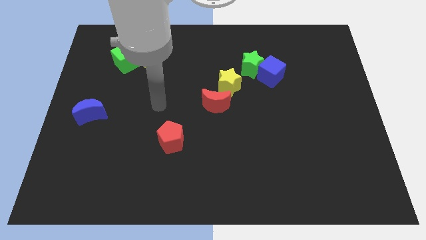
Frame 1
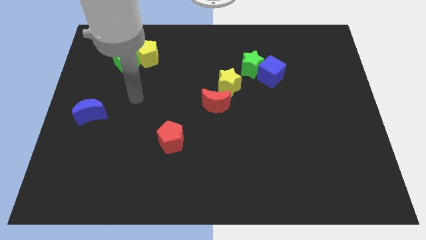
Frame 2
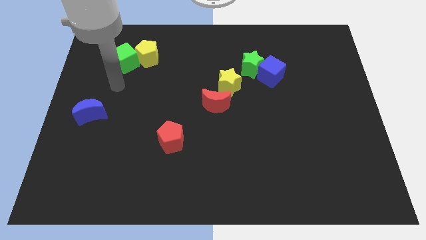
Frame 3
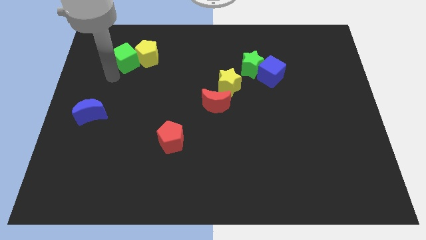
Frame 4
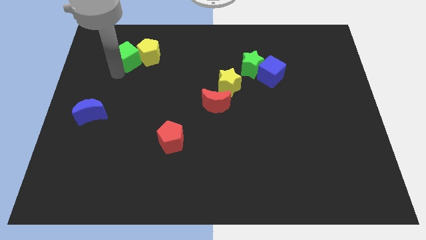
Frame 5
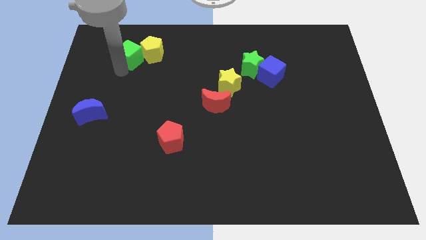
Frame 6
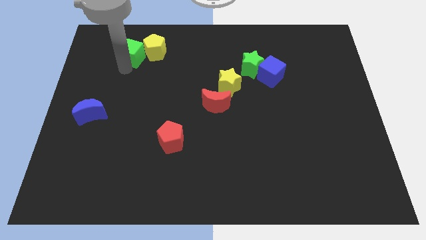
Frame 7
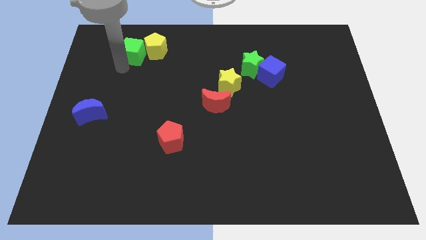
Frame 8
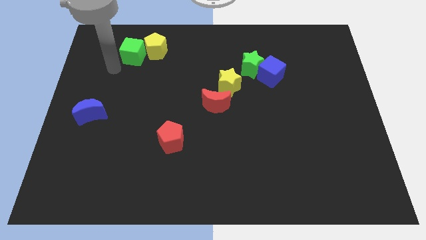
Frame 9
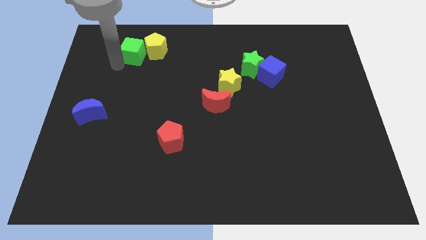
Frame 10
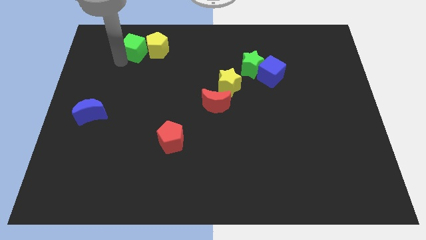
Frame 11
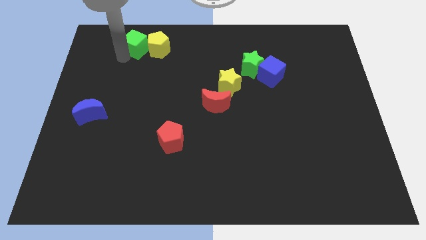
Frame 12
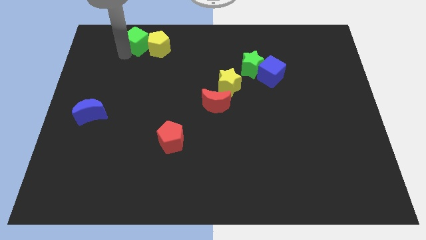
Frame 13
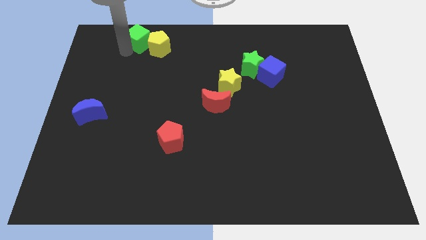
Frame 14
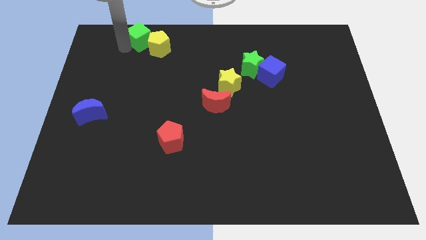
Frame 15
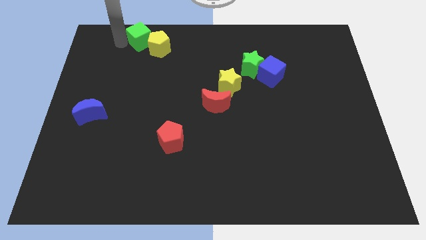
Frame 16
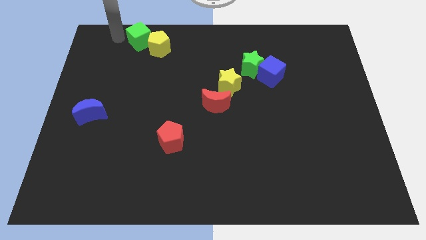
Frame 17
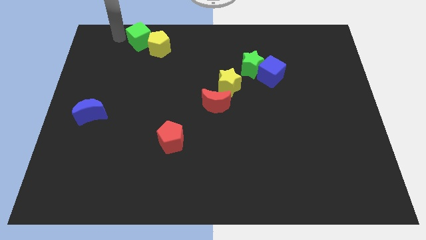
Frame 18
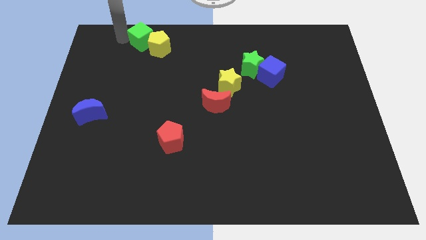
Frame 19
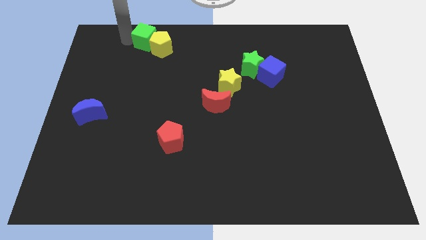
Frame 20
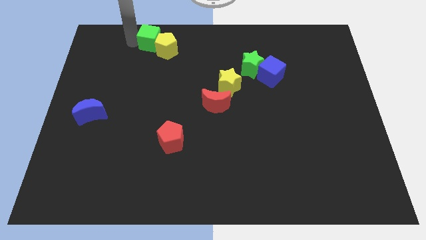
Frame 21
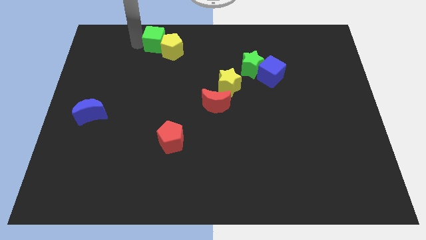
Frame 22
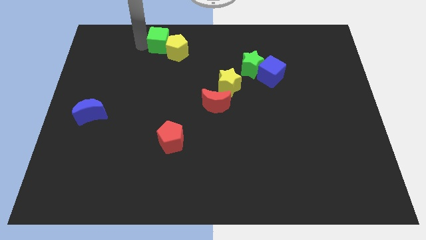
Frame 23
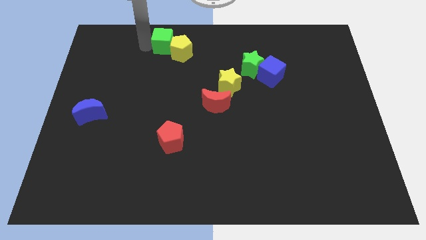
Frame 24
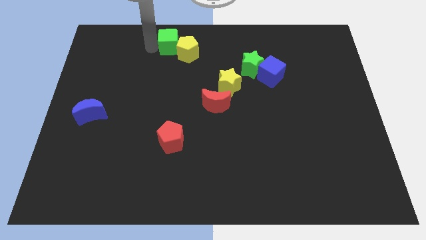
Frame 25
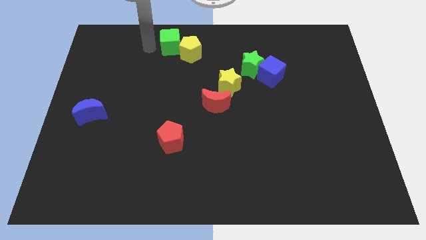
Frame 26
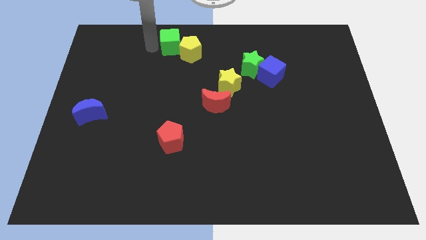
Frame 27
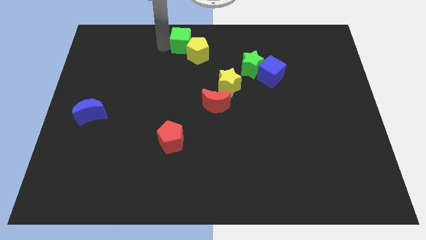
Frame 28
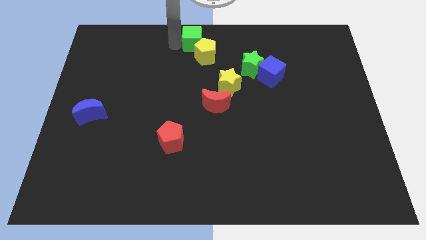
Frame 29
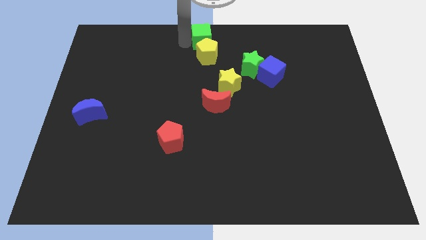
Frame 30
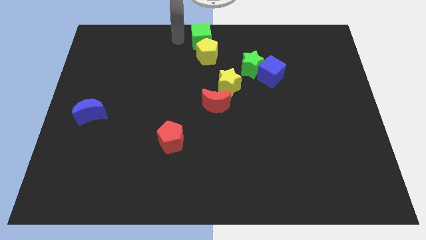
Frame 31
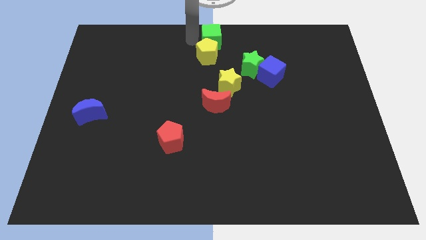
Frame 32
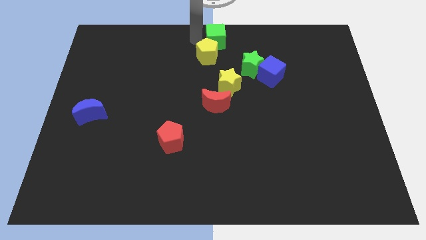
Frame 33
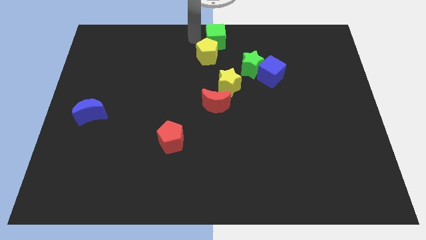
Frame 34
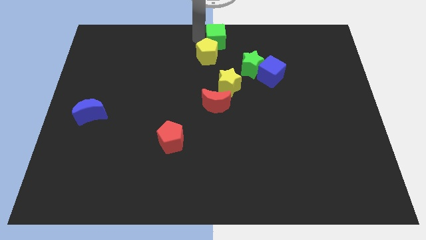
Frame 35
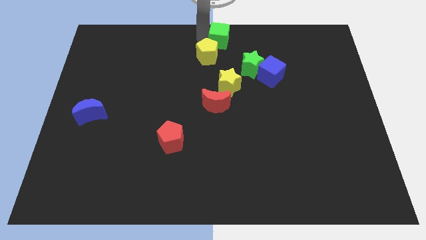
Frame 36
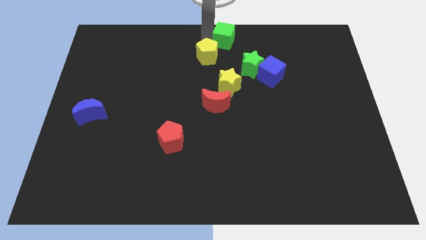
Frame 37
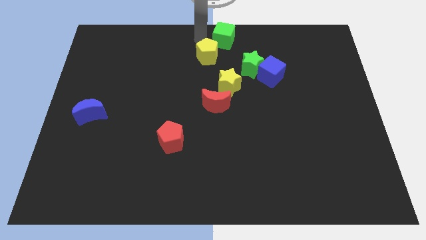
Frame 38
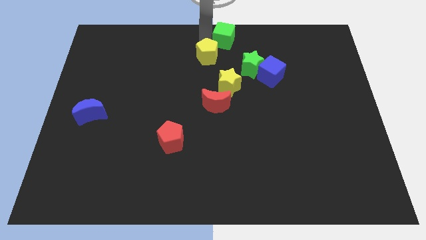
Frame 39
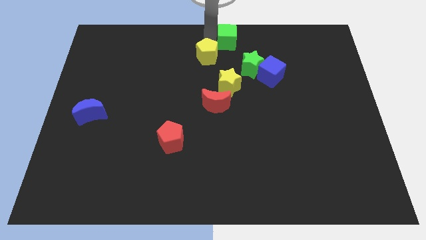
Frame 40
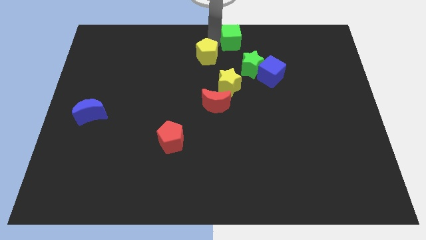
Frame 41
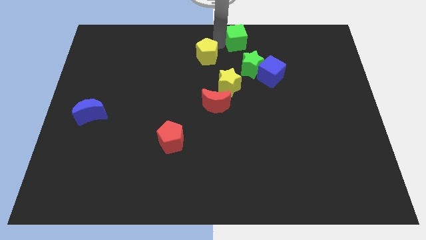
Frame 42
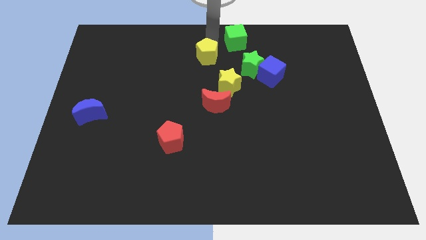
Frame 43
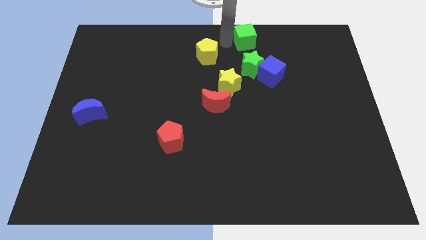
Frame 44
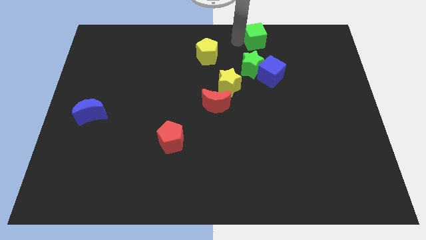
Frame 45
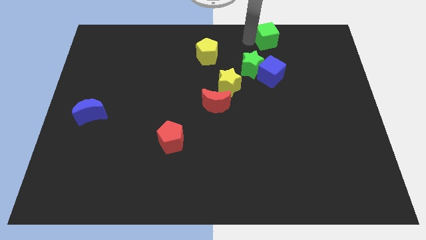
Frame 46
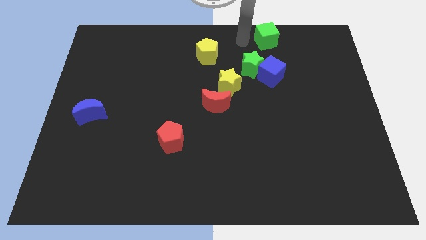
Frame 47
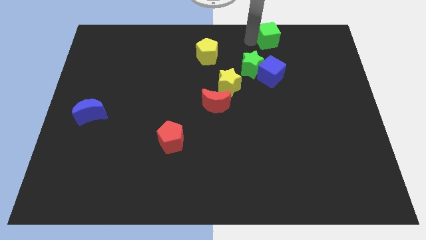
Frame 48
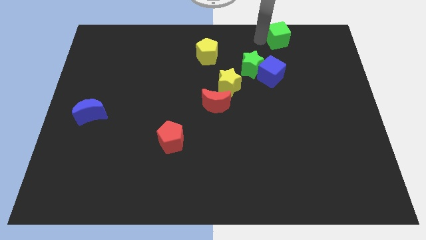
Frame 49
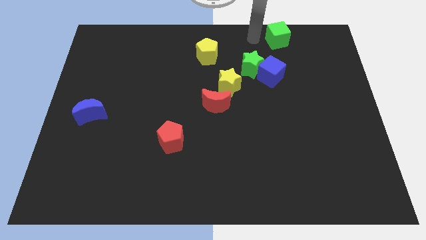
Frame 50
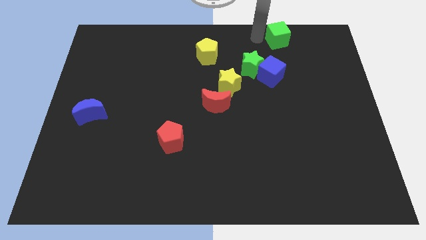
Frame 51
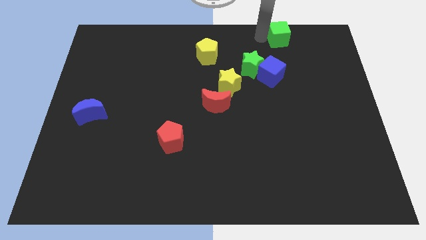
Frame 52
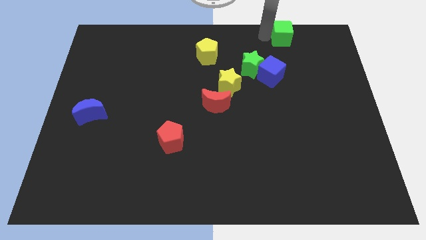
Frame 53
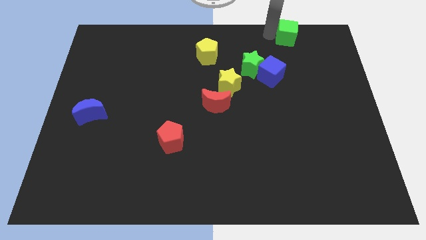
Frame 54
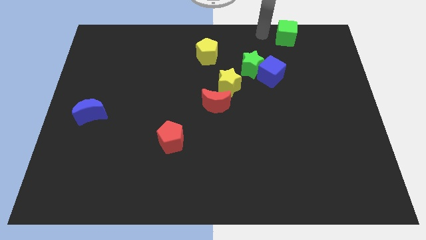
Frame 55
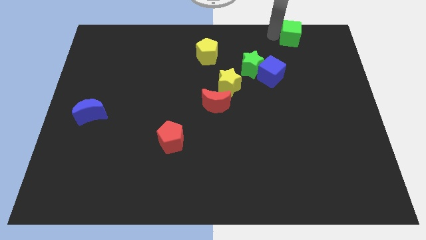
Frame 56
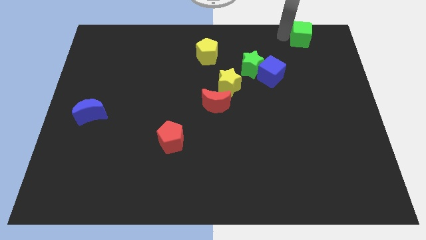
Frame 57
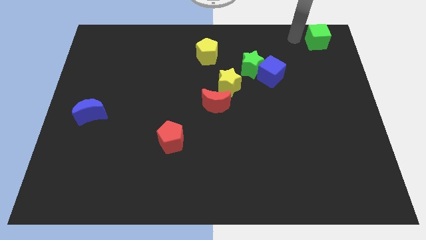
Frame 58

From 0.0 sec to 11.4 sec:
move the green cube to the top right corner

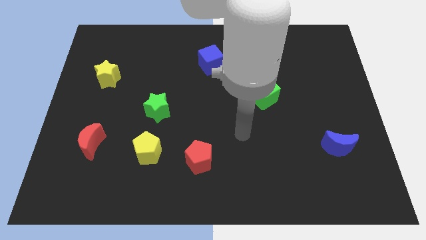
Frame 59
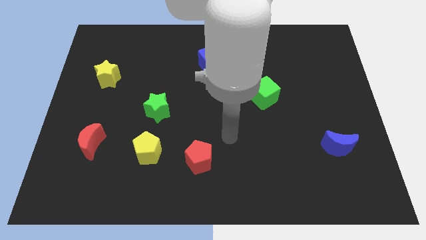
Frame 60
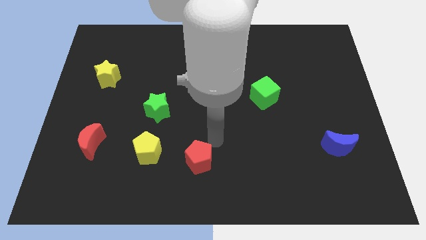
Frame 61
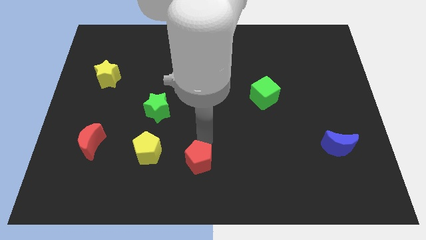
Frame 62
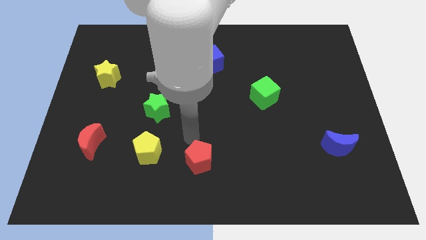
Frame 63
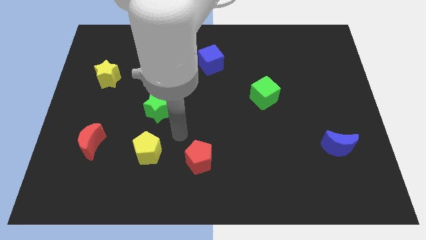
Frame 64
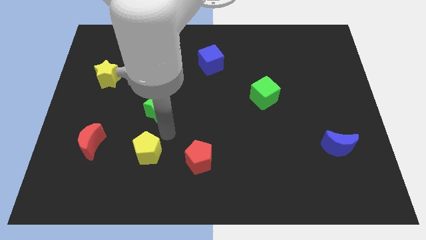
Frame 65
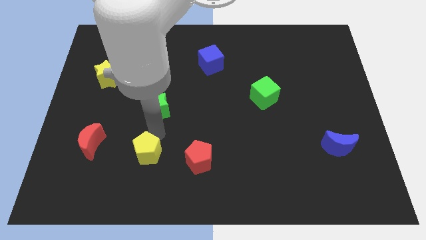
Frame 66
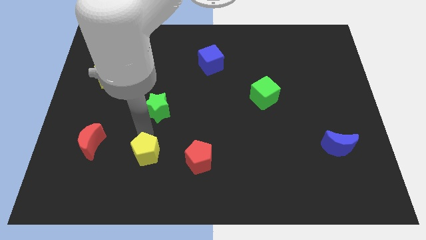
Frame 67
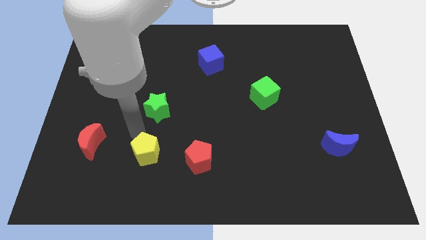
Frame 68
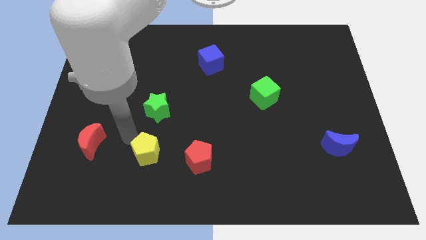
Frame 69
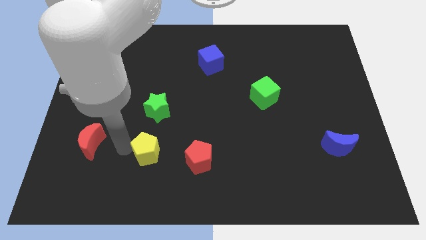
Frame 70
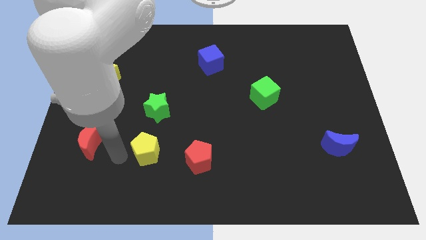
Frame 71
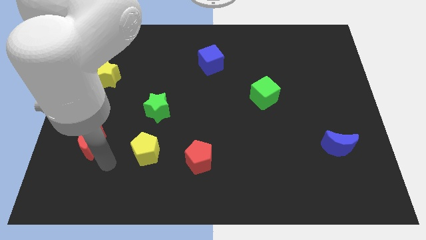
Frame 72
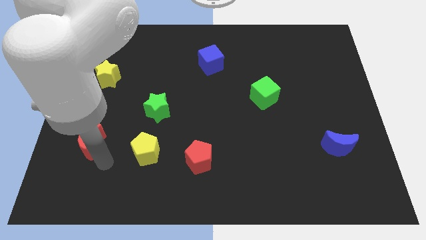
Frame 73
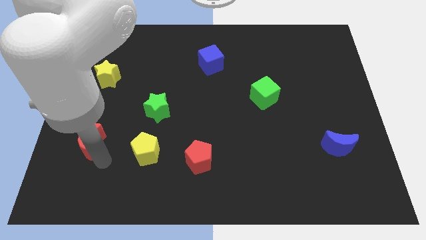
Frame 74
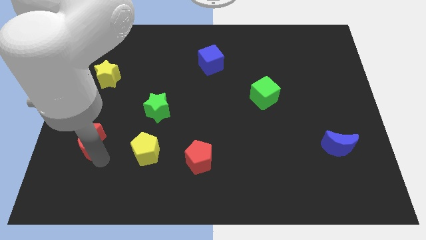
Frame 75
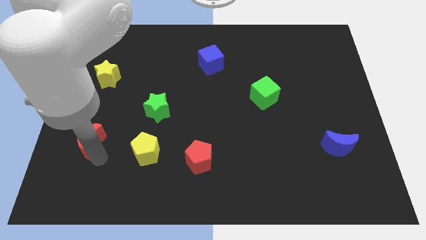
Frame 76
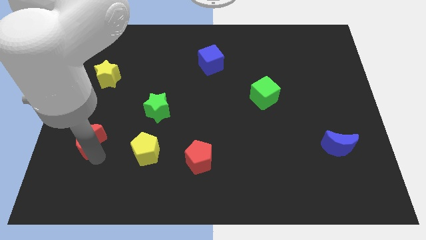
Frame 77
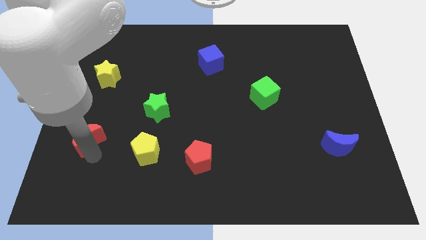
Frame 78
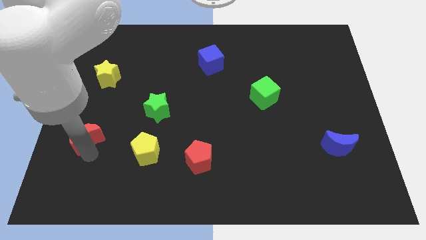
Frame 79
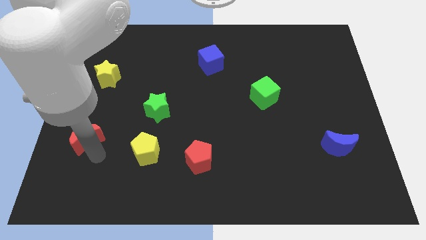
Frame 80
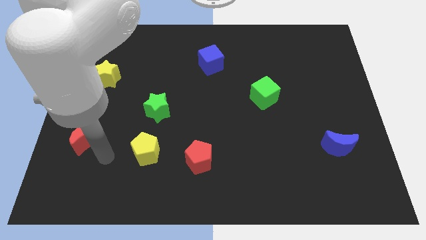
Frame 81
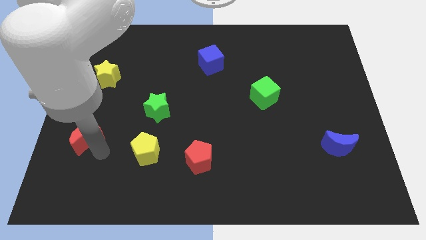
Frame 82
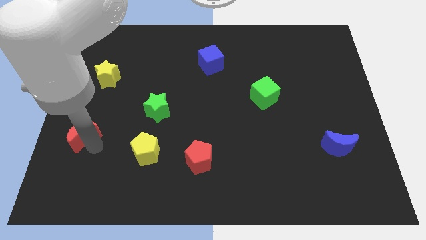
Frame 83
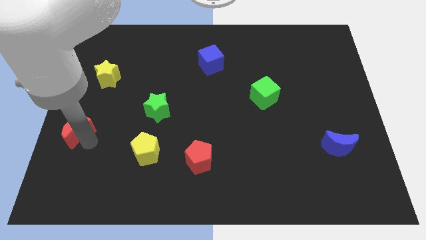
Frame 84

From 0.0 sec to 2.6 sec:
slide the red moon to the left side
